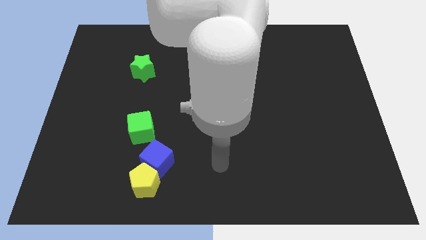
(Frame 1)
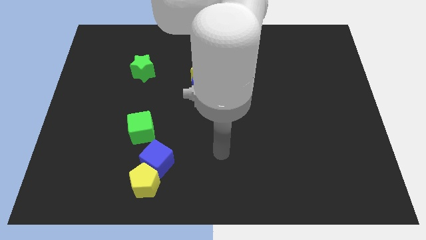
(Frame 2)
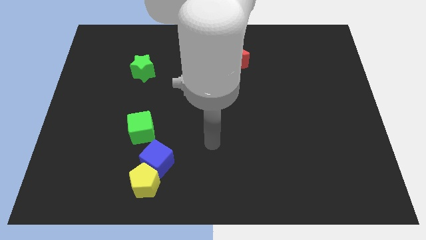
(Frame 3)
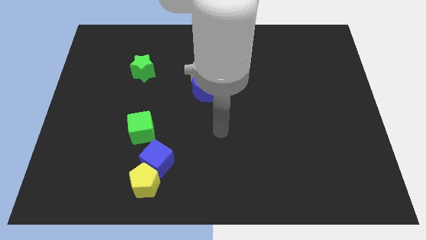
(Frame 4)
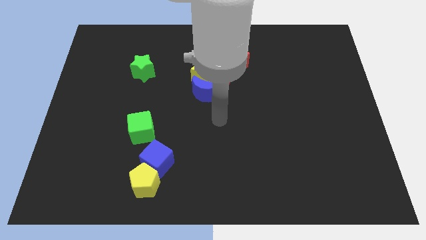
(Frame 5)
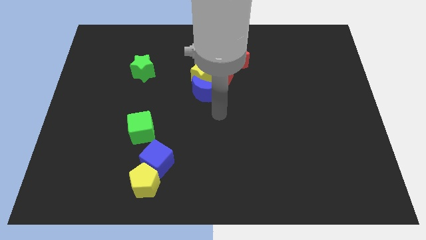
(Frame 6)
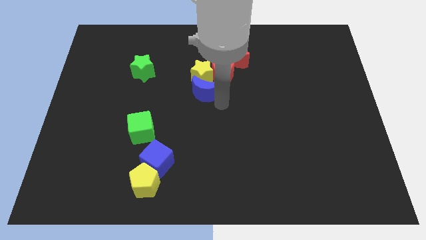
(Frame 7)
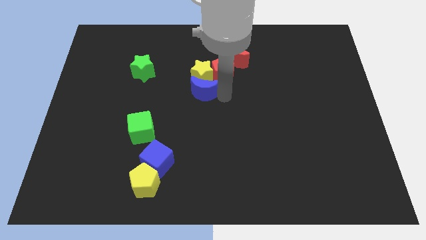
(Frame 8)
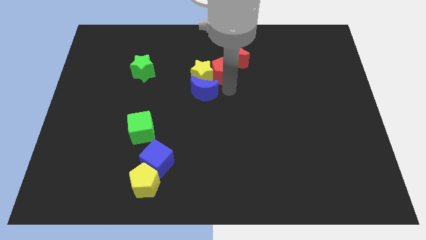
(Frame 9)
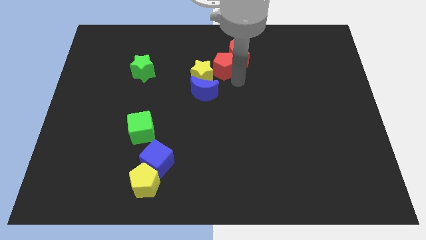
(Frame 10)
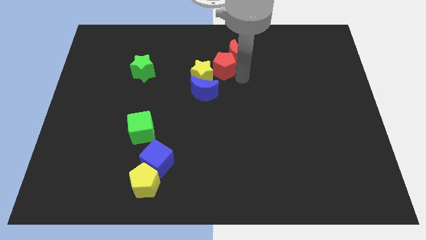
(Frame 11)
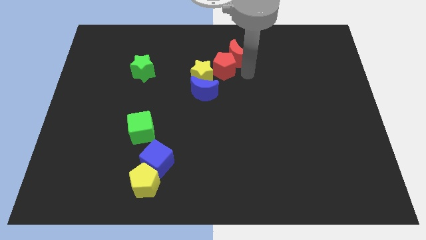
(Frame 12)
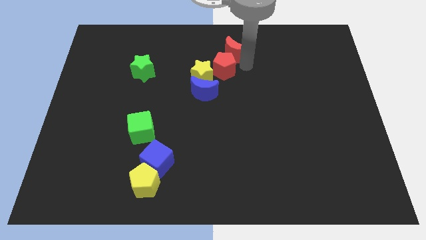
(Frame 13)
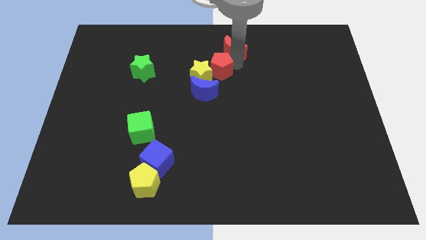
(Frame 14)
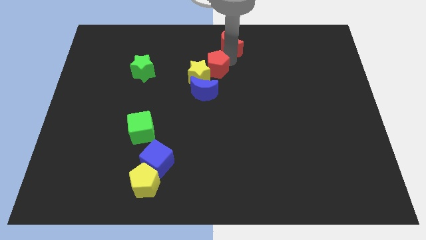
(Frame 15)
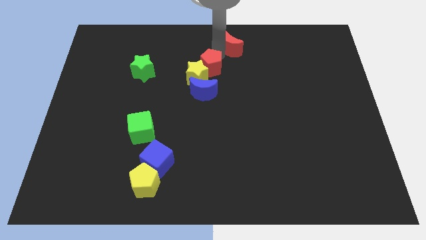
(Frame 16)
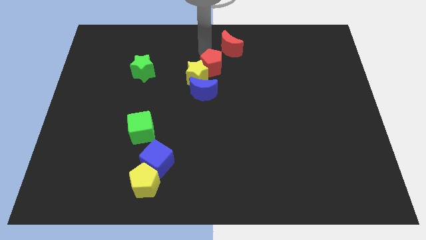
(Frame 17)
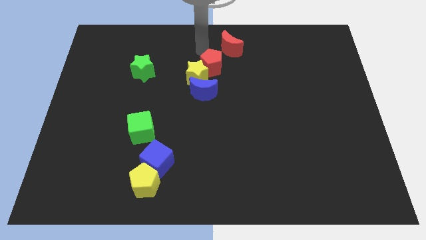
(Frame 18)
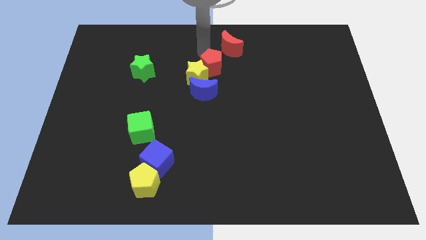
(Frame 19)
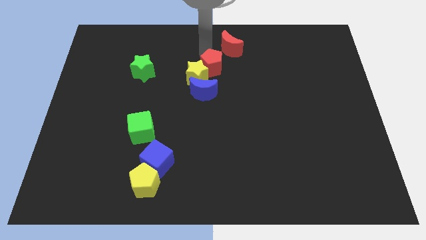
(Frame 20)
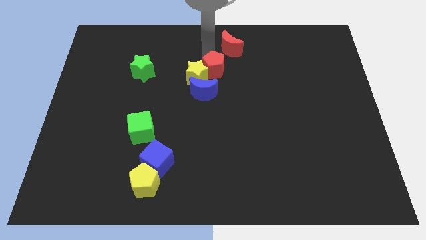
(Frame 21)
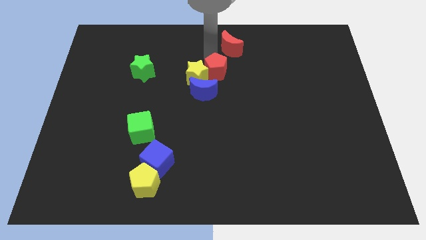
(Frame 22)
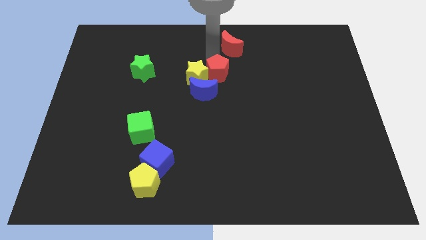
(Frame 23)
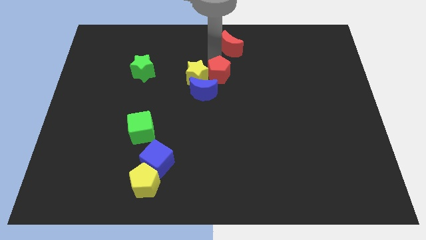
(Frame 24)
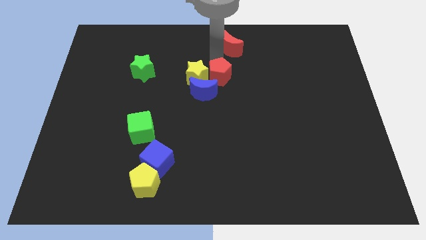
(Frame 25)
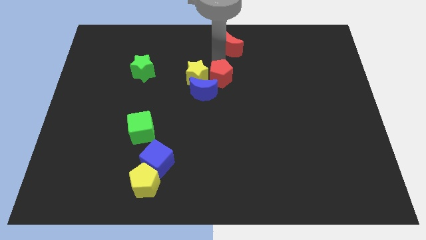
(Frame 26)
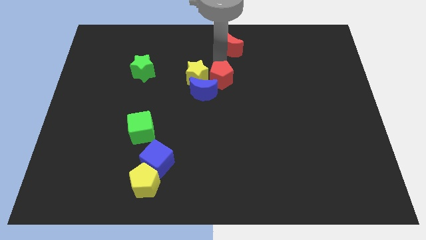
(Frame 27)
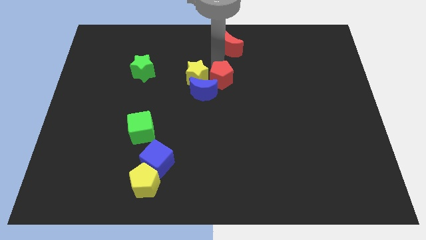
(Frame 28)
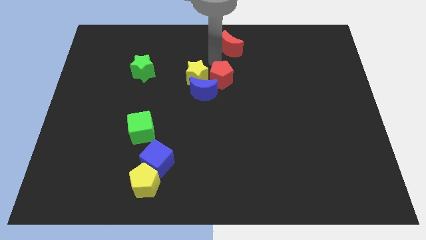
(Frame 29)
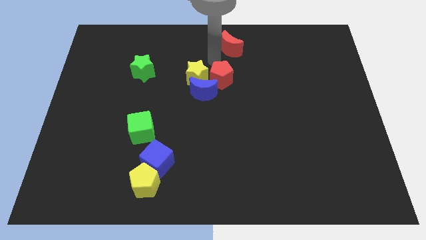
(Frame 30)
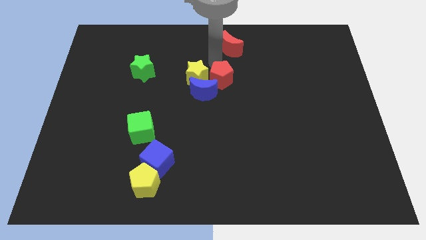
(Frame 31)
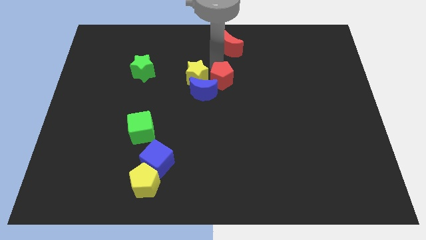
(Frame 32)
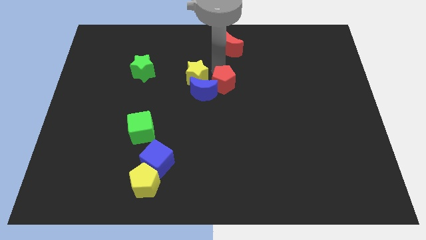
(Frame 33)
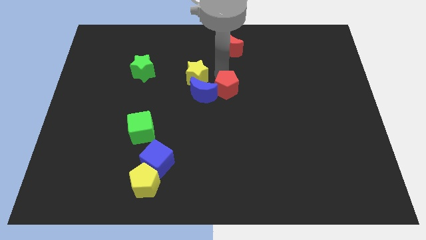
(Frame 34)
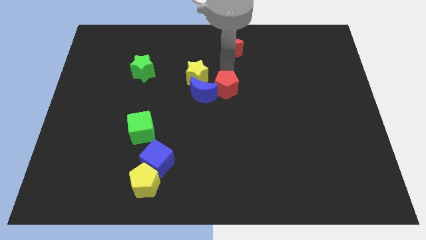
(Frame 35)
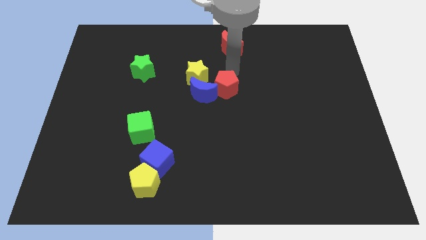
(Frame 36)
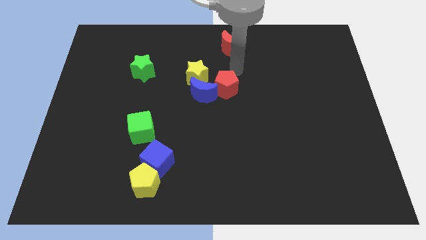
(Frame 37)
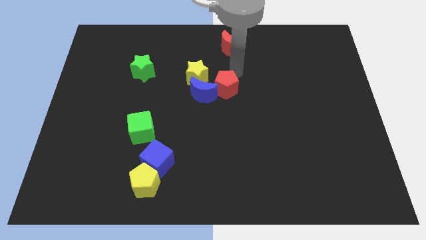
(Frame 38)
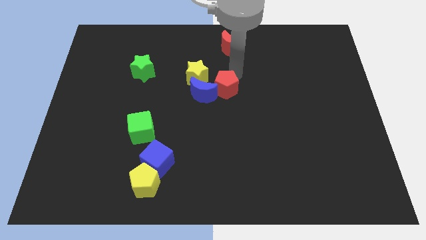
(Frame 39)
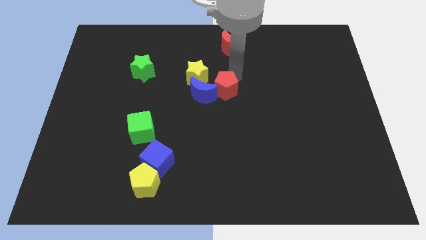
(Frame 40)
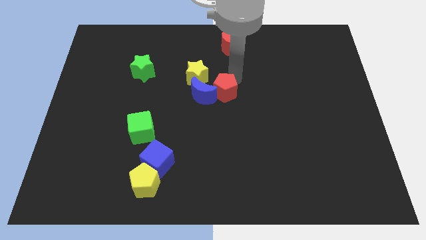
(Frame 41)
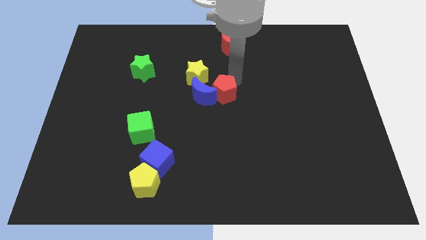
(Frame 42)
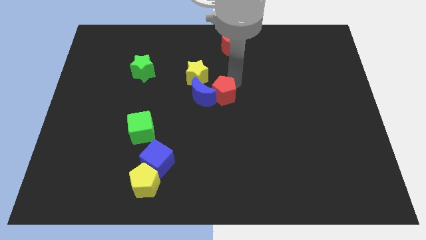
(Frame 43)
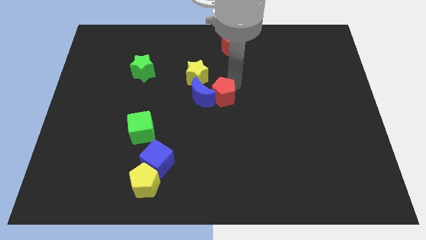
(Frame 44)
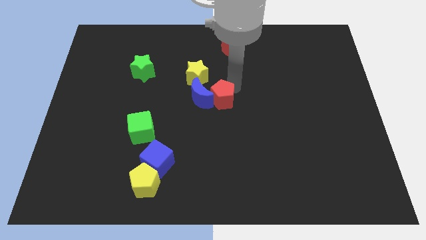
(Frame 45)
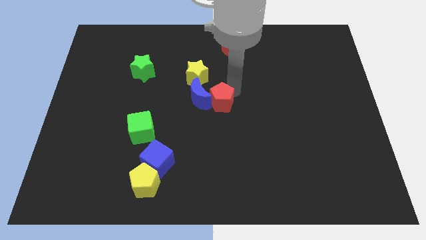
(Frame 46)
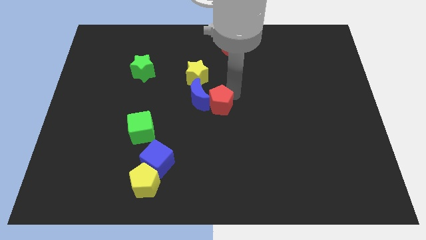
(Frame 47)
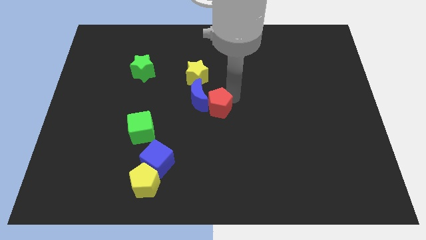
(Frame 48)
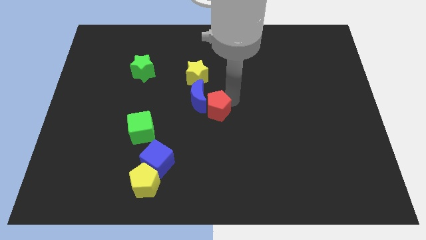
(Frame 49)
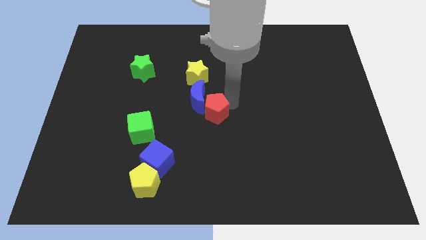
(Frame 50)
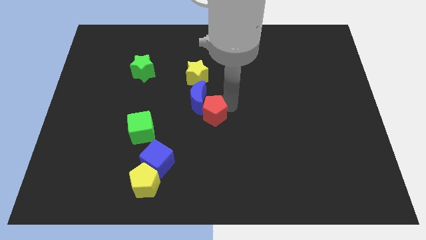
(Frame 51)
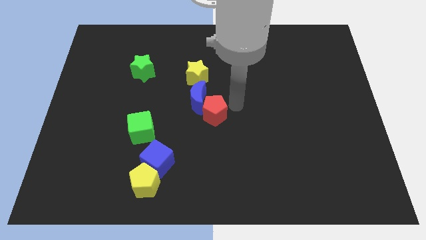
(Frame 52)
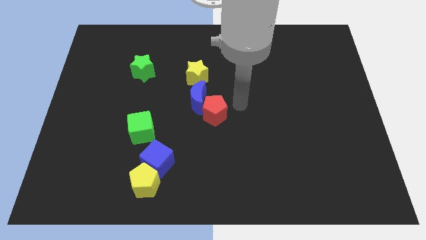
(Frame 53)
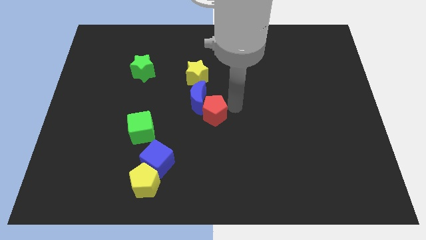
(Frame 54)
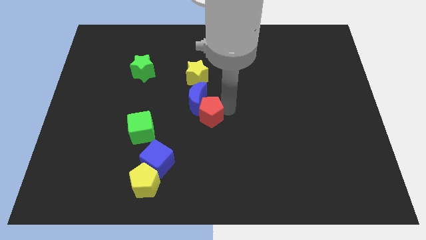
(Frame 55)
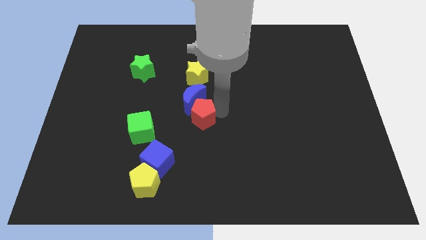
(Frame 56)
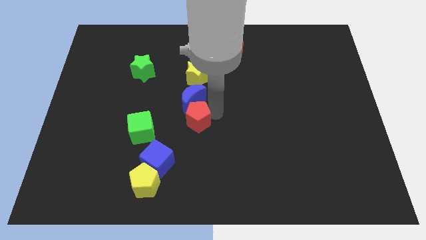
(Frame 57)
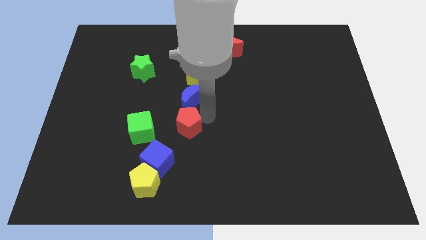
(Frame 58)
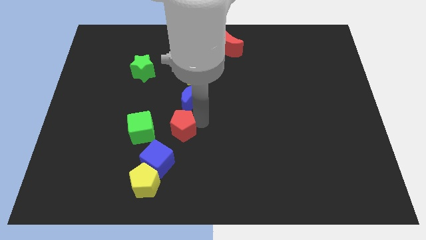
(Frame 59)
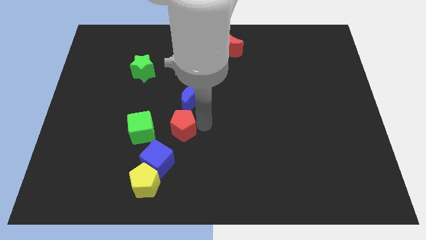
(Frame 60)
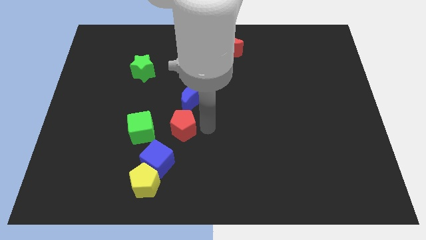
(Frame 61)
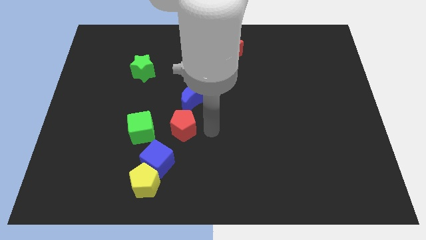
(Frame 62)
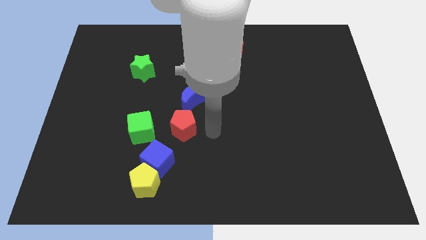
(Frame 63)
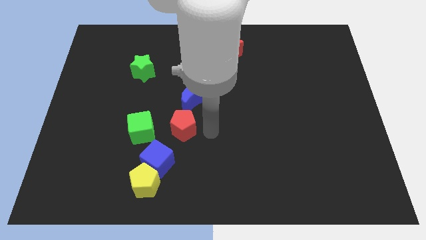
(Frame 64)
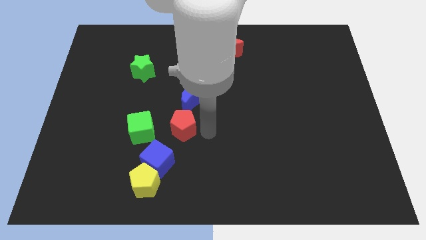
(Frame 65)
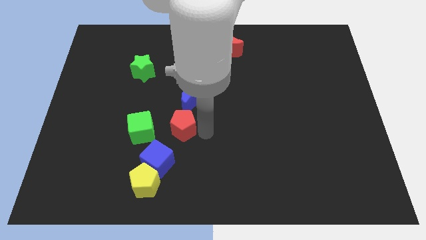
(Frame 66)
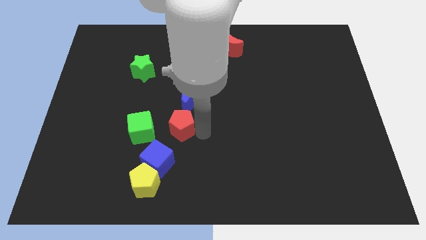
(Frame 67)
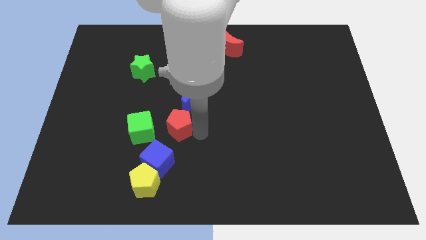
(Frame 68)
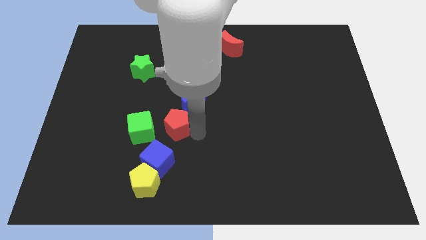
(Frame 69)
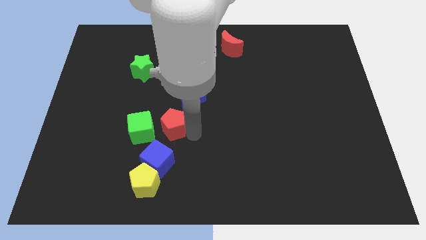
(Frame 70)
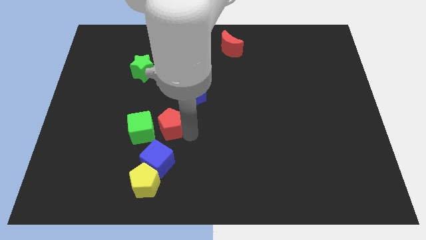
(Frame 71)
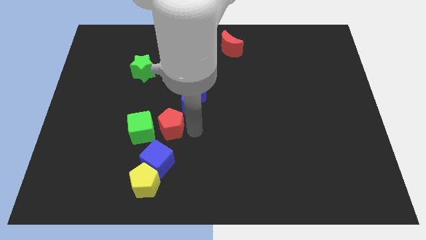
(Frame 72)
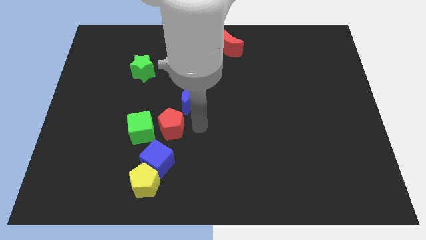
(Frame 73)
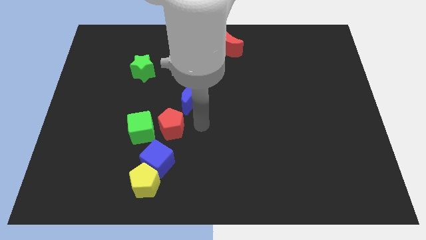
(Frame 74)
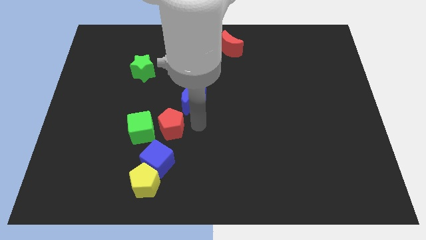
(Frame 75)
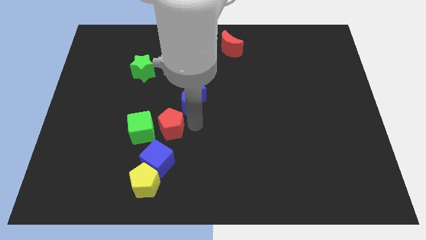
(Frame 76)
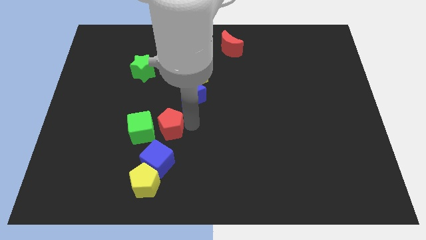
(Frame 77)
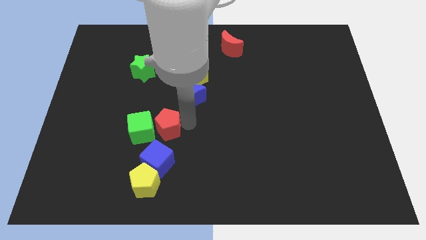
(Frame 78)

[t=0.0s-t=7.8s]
put the red pentagon close to the green cube
